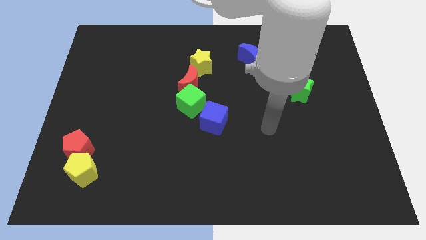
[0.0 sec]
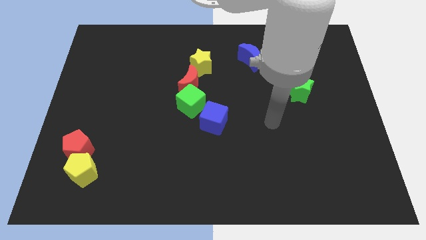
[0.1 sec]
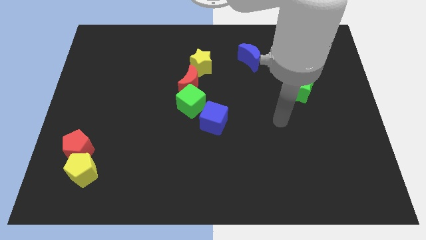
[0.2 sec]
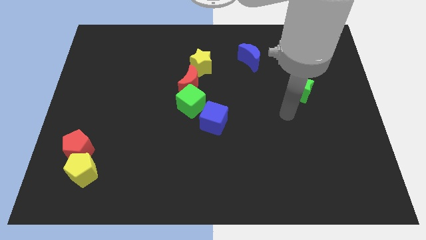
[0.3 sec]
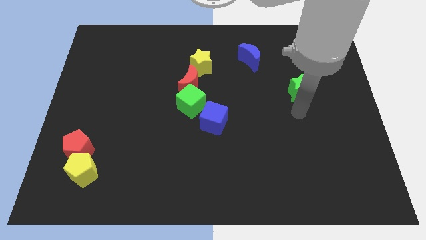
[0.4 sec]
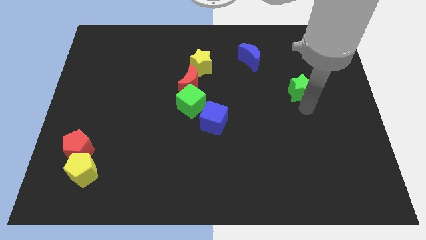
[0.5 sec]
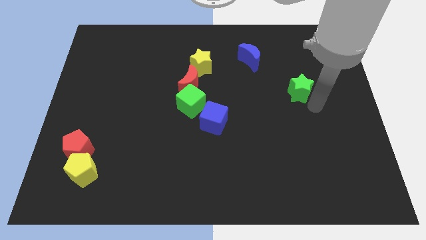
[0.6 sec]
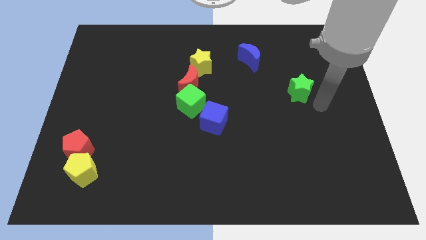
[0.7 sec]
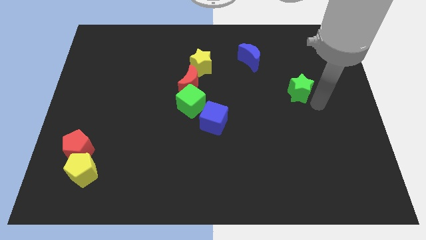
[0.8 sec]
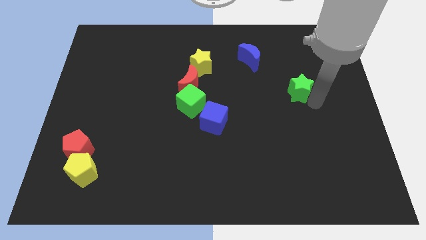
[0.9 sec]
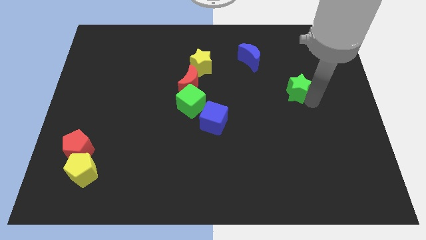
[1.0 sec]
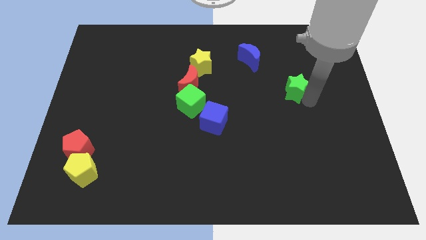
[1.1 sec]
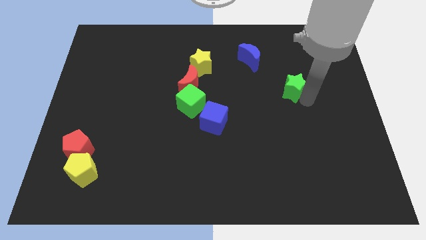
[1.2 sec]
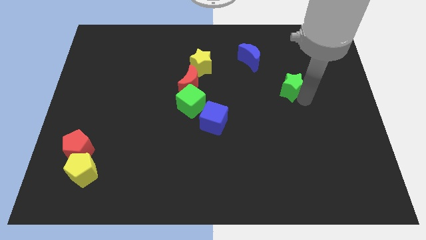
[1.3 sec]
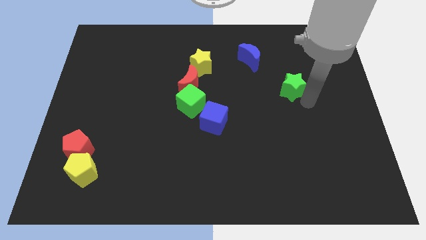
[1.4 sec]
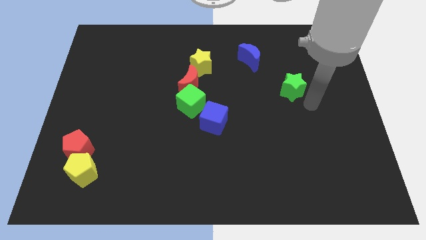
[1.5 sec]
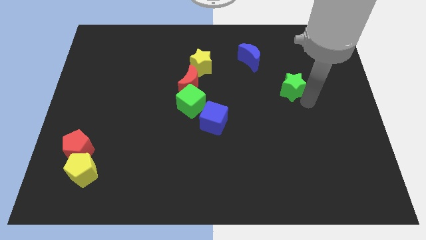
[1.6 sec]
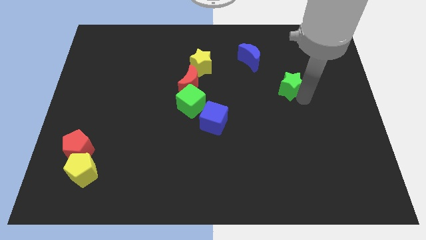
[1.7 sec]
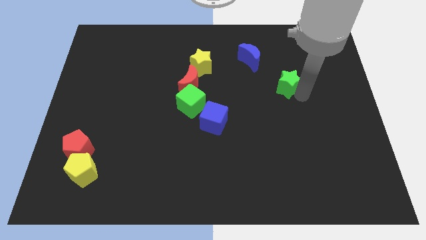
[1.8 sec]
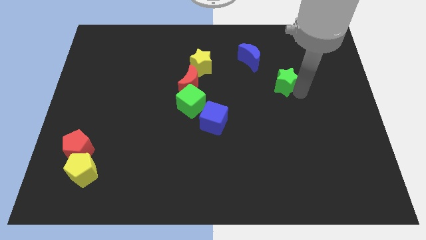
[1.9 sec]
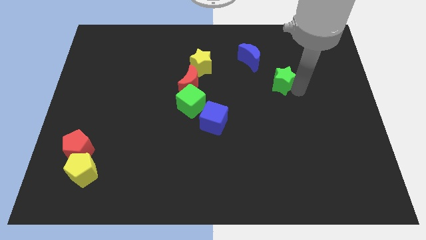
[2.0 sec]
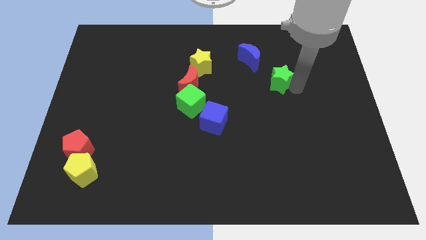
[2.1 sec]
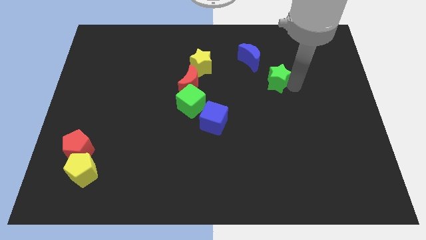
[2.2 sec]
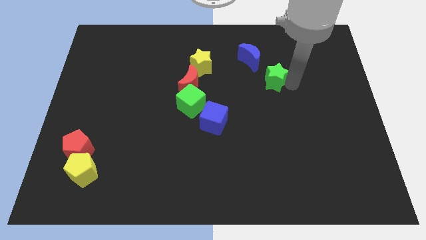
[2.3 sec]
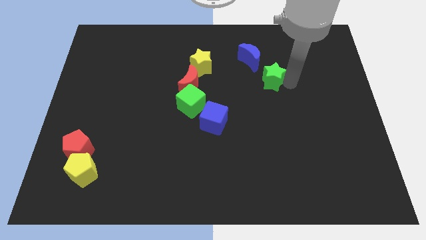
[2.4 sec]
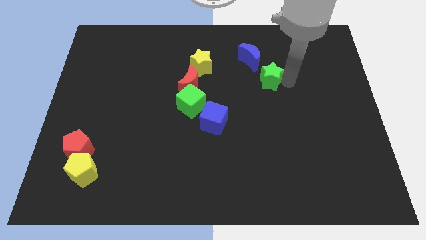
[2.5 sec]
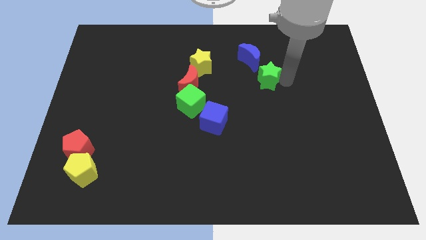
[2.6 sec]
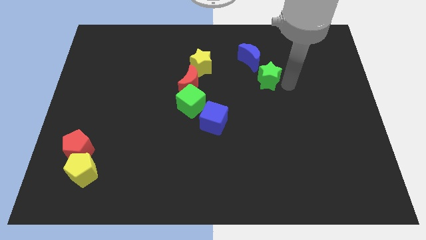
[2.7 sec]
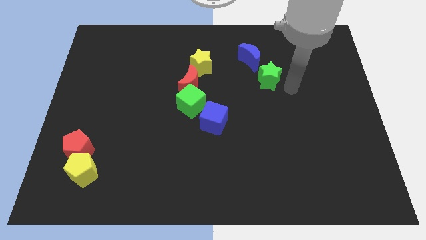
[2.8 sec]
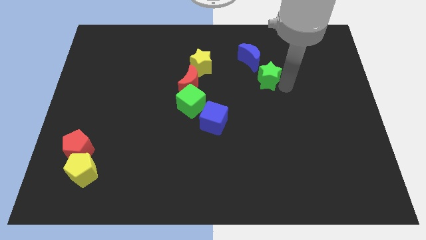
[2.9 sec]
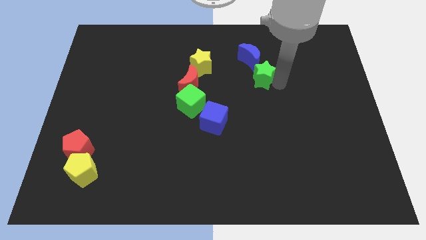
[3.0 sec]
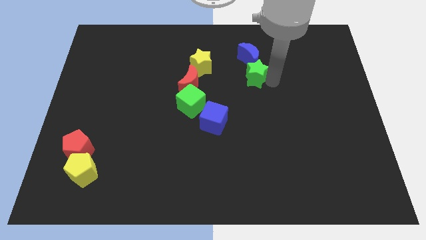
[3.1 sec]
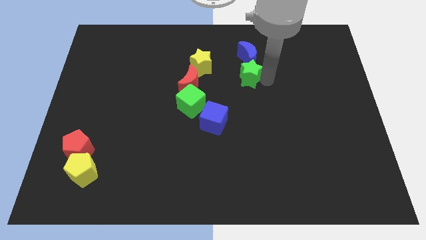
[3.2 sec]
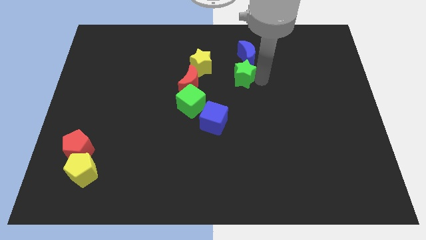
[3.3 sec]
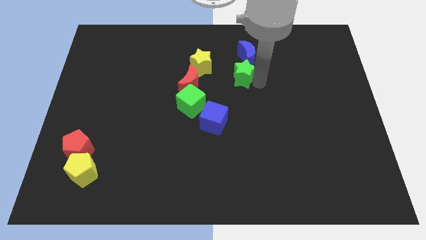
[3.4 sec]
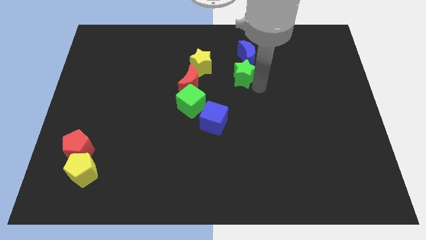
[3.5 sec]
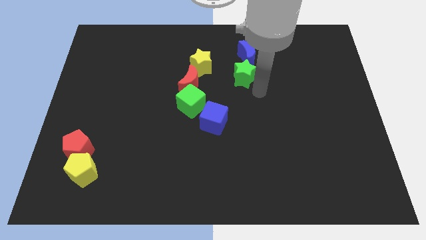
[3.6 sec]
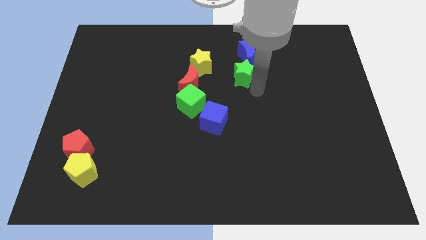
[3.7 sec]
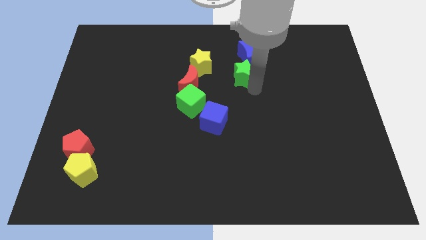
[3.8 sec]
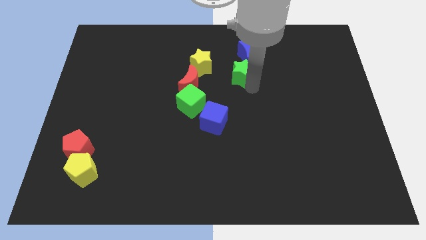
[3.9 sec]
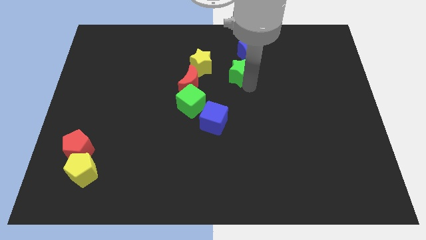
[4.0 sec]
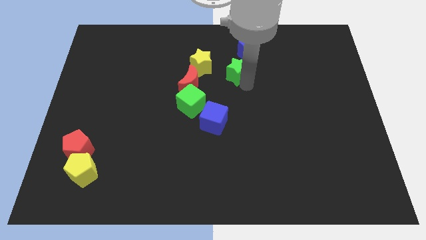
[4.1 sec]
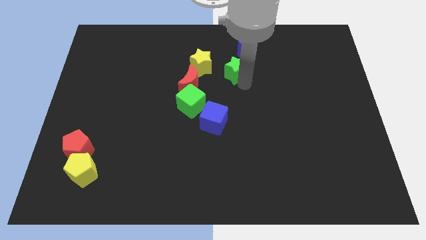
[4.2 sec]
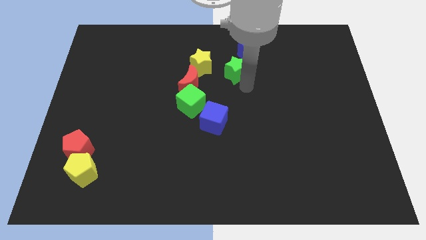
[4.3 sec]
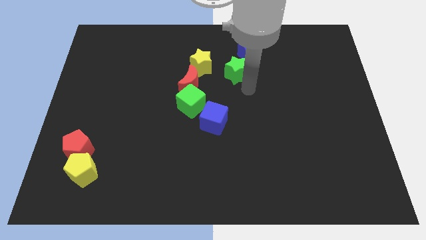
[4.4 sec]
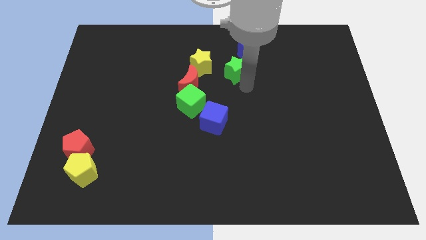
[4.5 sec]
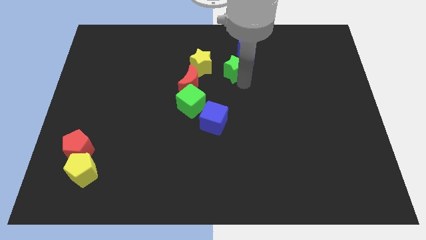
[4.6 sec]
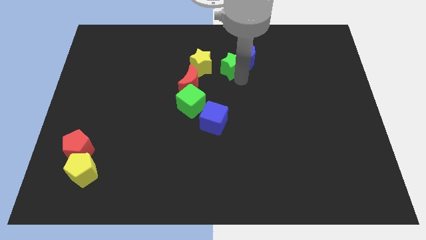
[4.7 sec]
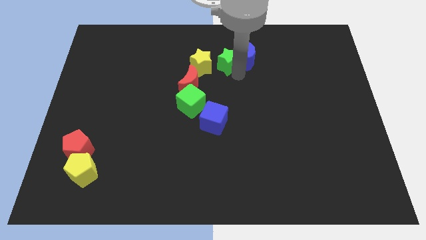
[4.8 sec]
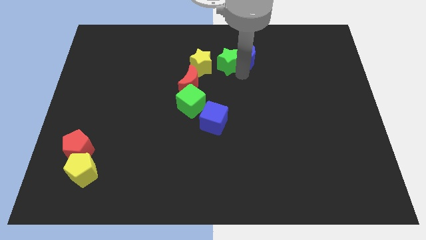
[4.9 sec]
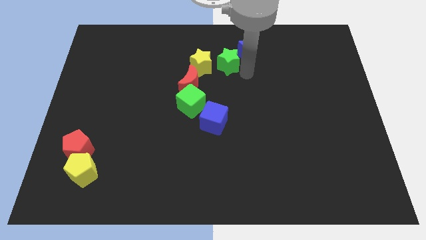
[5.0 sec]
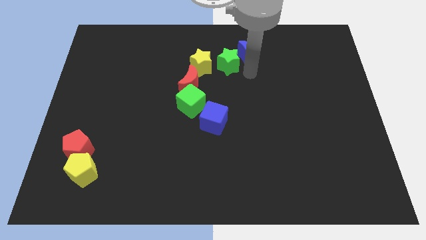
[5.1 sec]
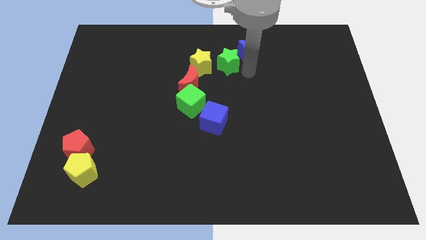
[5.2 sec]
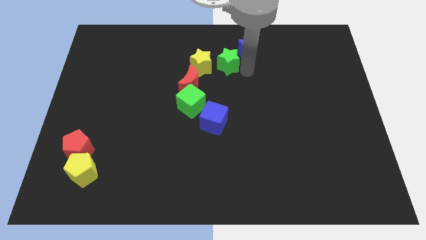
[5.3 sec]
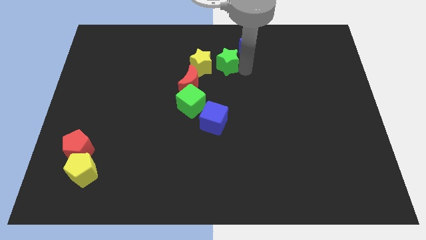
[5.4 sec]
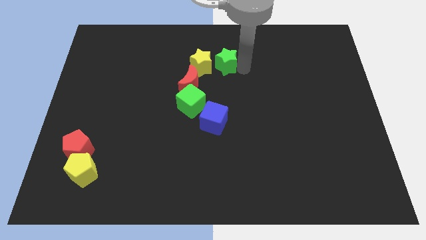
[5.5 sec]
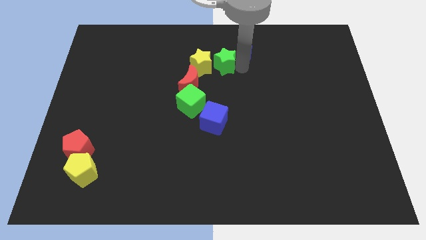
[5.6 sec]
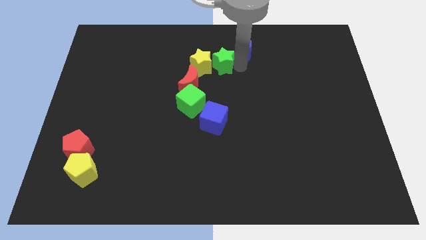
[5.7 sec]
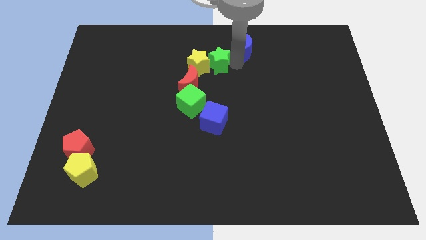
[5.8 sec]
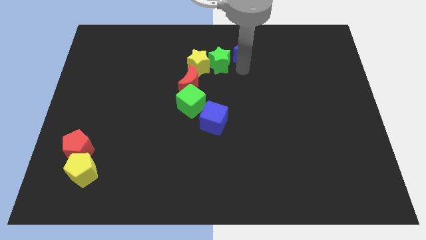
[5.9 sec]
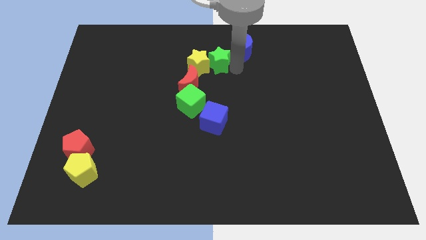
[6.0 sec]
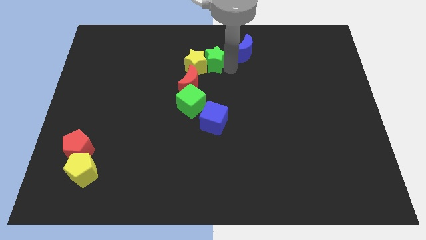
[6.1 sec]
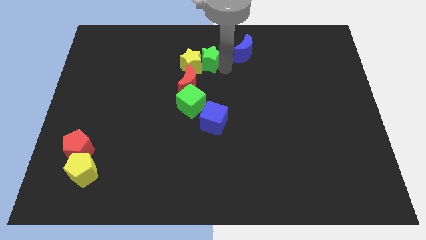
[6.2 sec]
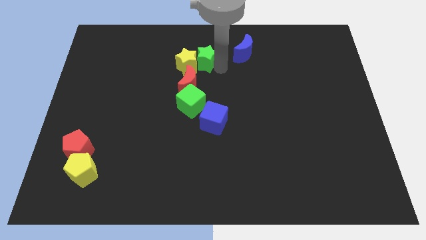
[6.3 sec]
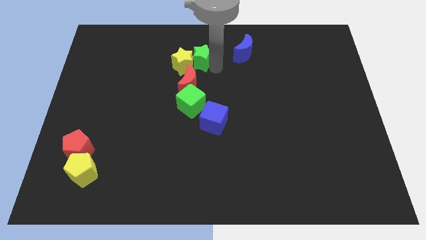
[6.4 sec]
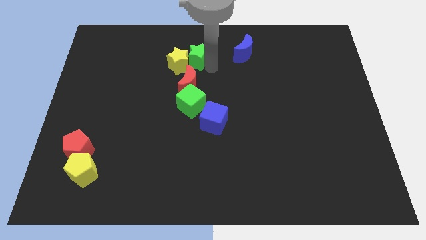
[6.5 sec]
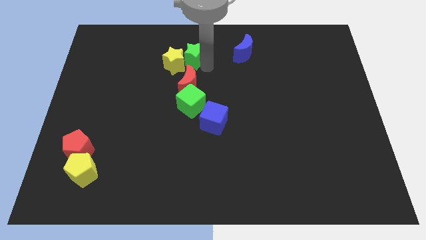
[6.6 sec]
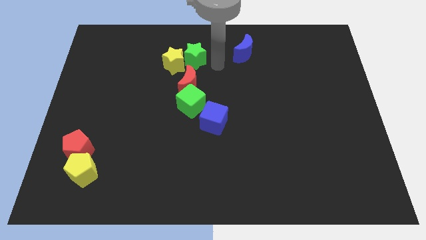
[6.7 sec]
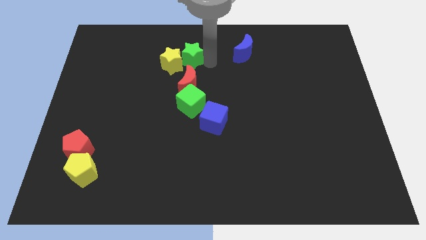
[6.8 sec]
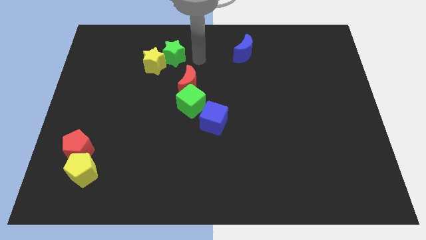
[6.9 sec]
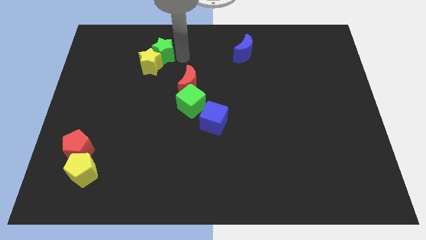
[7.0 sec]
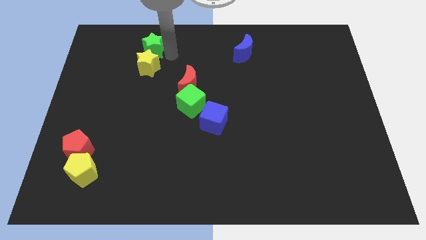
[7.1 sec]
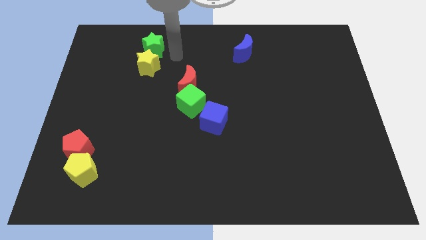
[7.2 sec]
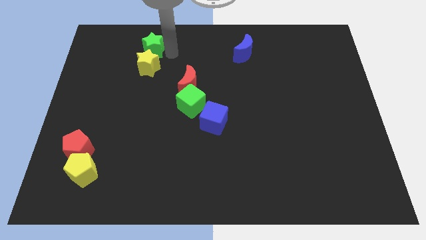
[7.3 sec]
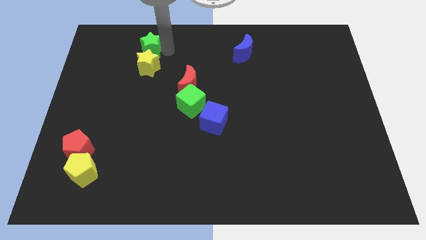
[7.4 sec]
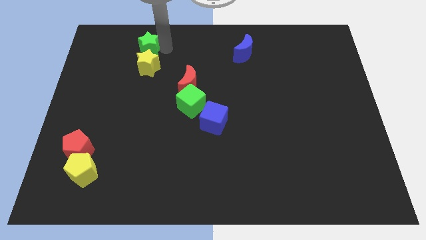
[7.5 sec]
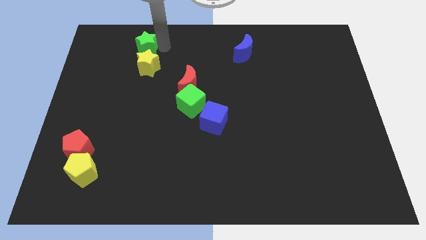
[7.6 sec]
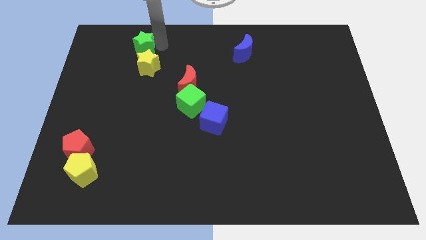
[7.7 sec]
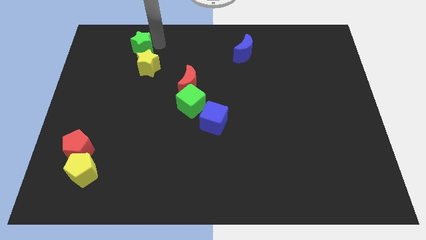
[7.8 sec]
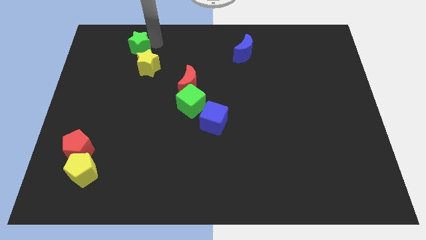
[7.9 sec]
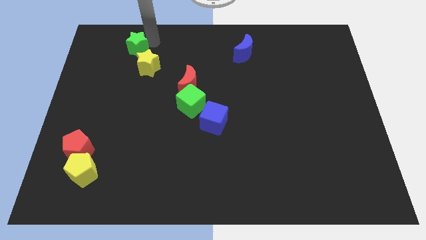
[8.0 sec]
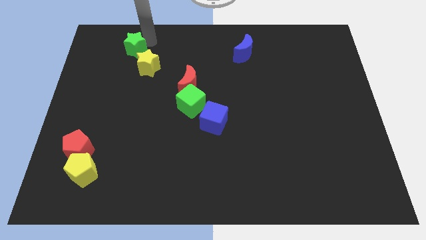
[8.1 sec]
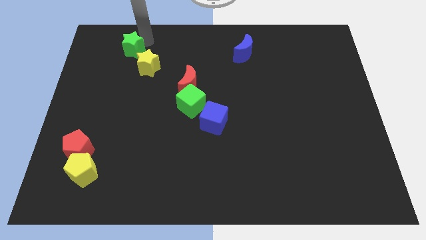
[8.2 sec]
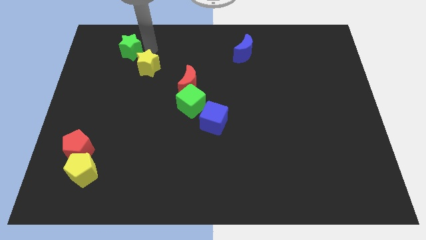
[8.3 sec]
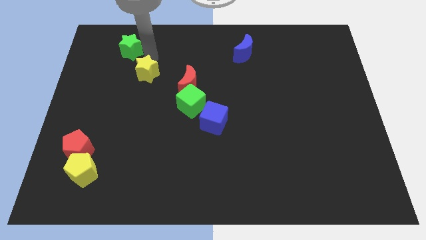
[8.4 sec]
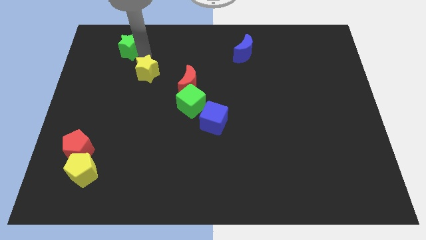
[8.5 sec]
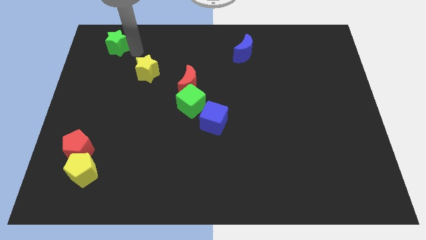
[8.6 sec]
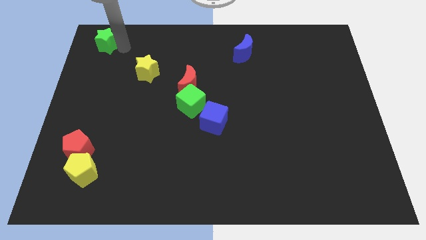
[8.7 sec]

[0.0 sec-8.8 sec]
move the green star to the upper left corner
